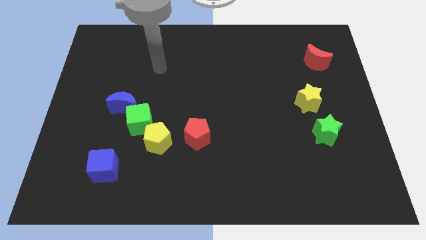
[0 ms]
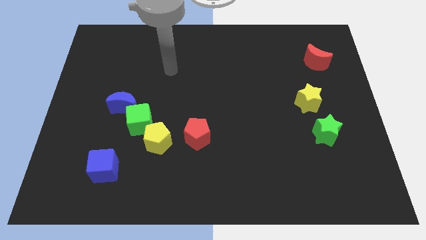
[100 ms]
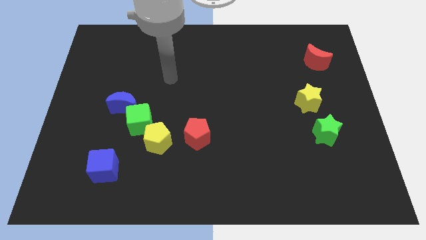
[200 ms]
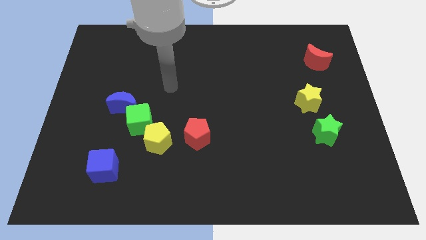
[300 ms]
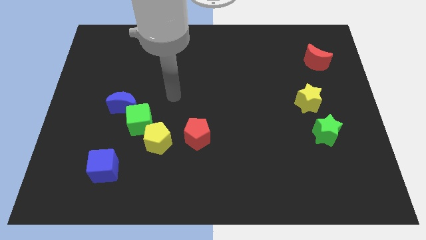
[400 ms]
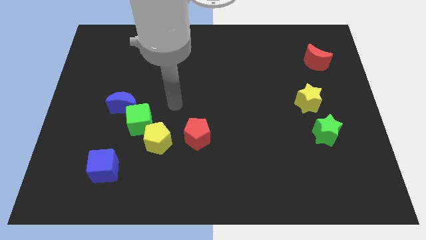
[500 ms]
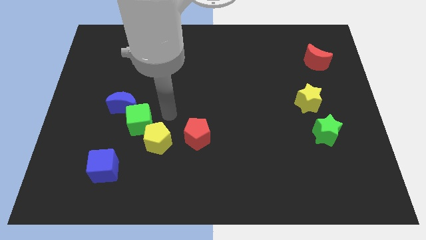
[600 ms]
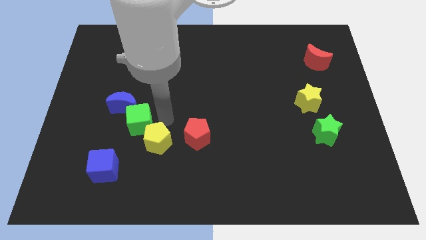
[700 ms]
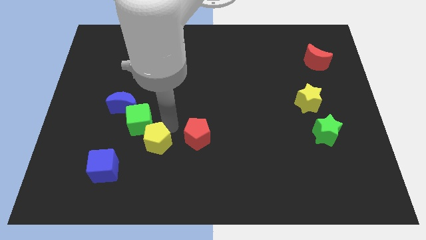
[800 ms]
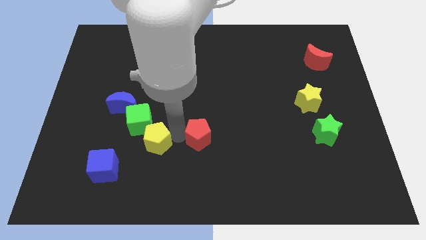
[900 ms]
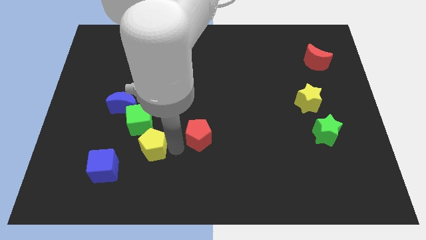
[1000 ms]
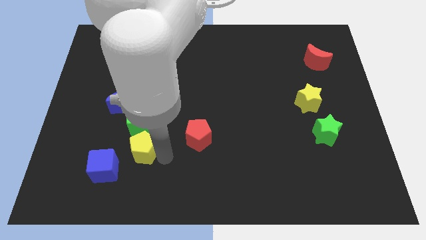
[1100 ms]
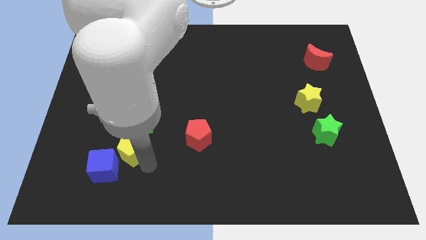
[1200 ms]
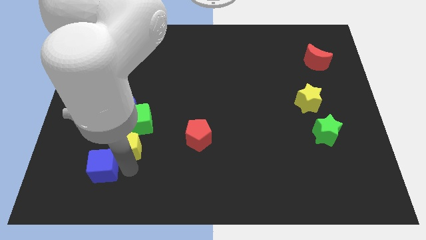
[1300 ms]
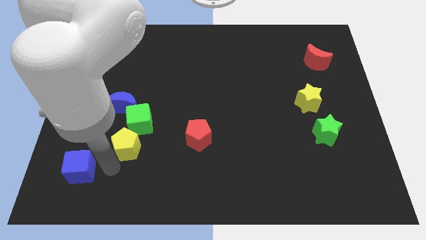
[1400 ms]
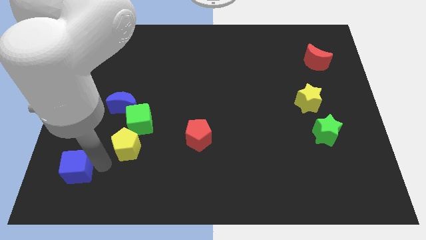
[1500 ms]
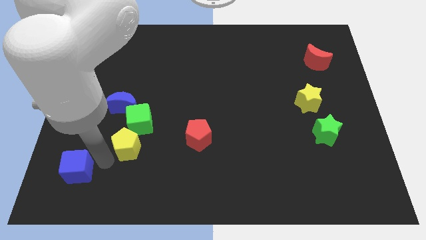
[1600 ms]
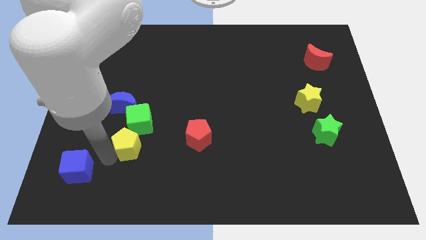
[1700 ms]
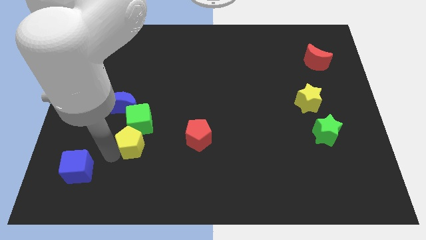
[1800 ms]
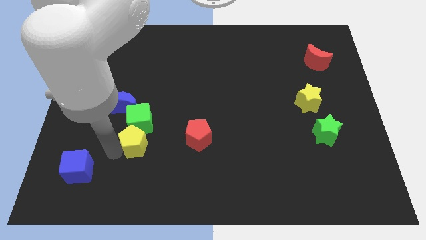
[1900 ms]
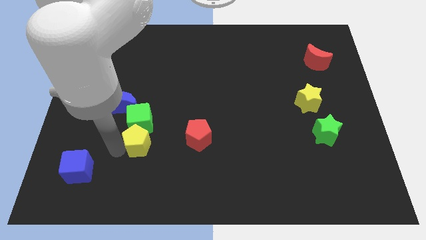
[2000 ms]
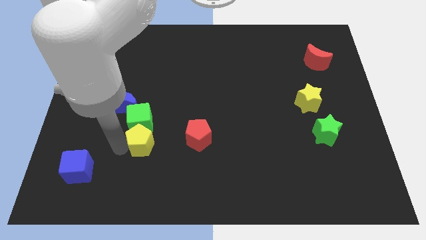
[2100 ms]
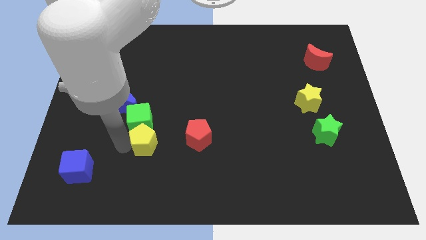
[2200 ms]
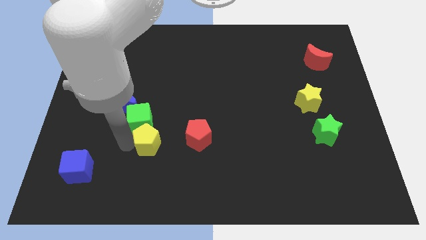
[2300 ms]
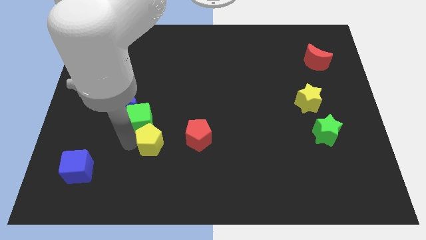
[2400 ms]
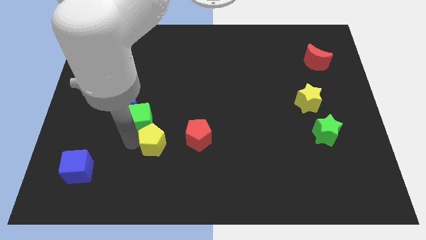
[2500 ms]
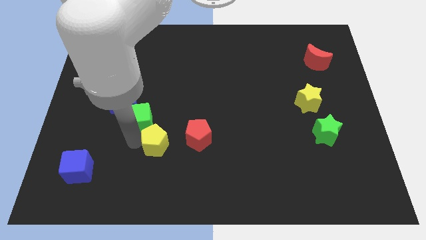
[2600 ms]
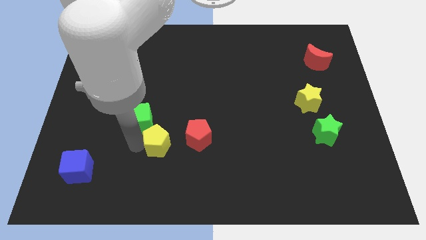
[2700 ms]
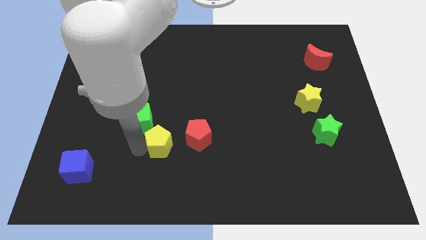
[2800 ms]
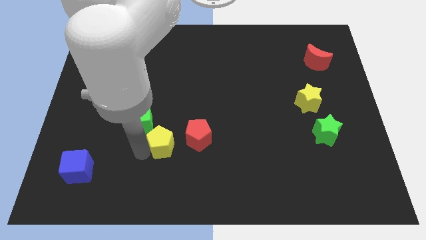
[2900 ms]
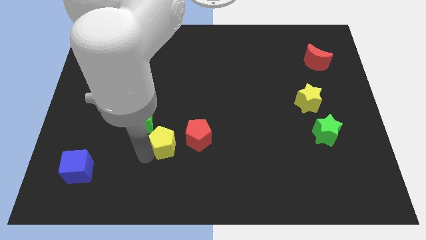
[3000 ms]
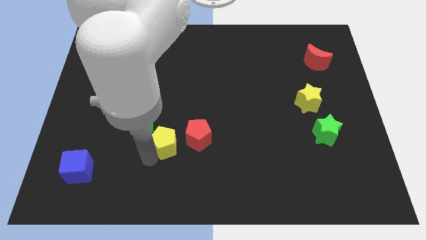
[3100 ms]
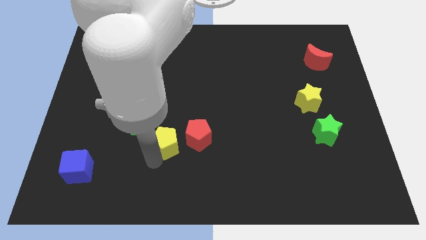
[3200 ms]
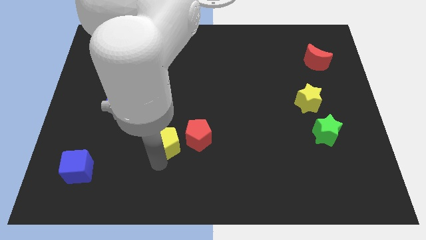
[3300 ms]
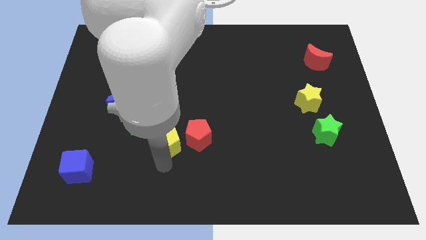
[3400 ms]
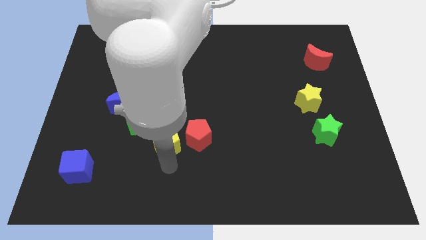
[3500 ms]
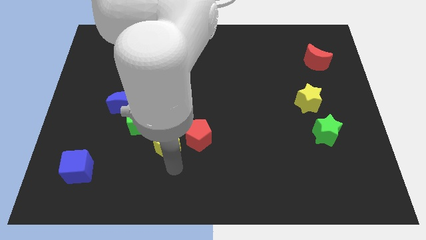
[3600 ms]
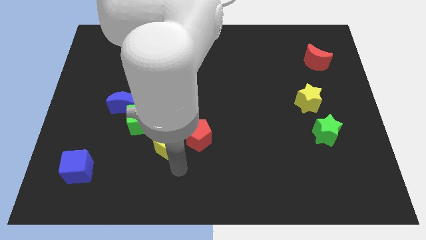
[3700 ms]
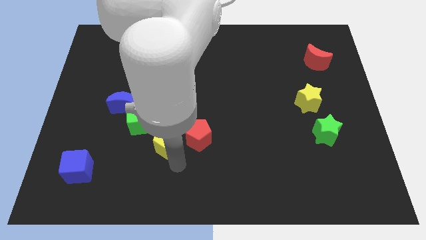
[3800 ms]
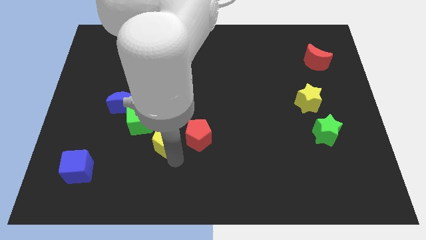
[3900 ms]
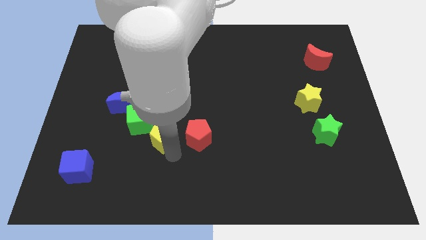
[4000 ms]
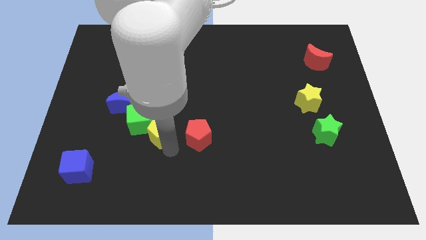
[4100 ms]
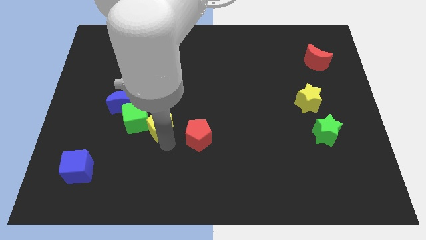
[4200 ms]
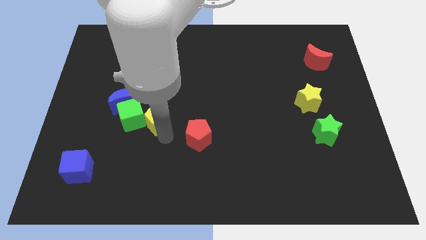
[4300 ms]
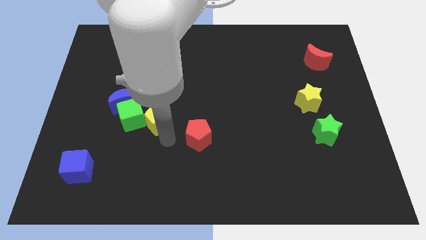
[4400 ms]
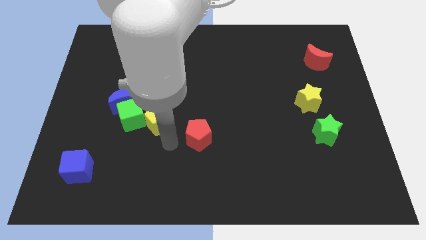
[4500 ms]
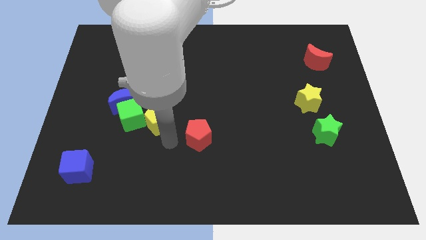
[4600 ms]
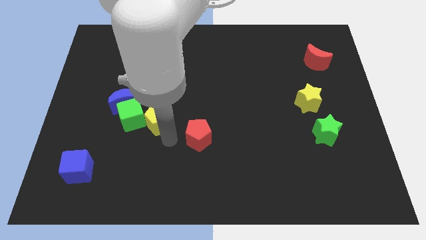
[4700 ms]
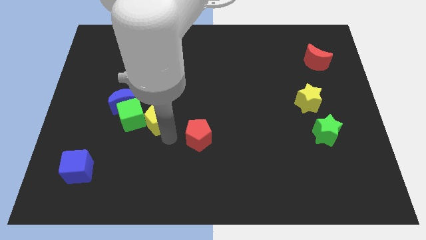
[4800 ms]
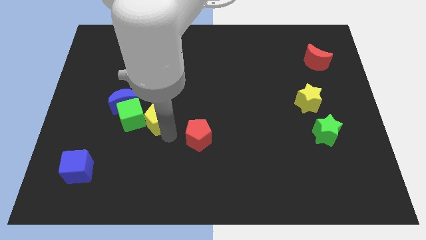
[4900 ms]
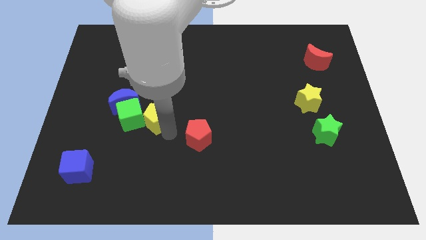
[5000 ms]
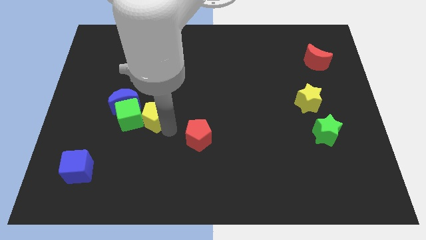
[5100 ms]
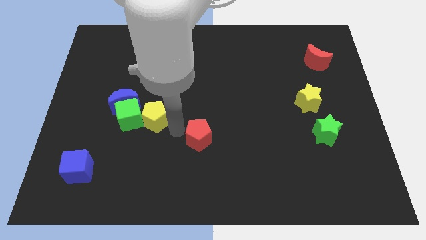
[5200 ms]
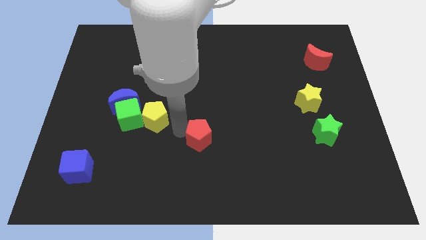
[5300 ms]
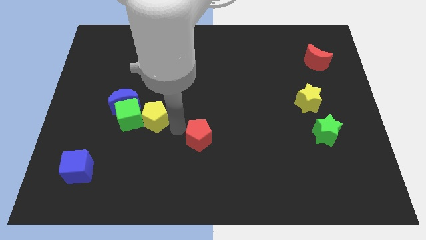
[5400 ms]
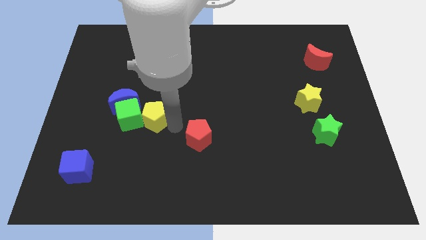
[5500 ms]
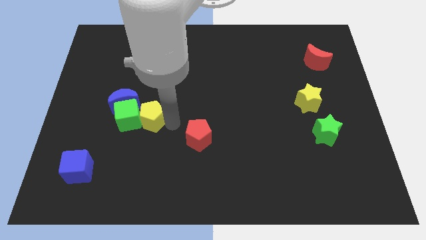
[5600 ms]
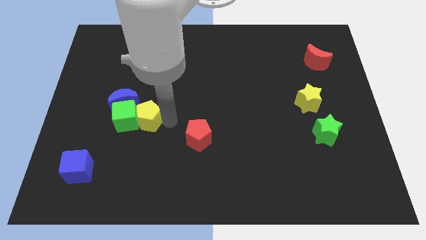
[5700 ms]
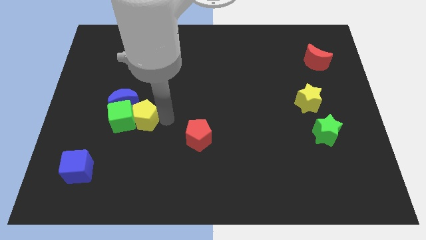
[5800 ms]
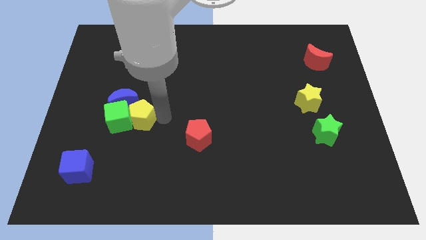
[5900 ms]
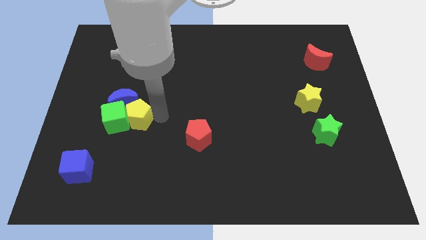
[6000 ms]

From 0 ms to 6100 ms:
push the yellow pentagon close to the blue moon

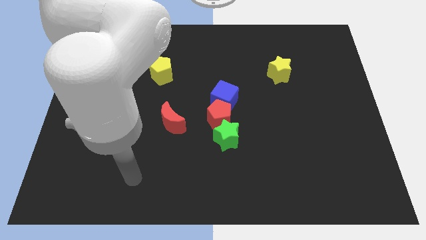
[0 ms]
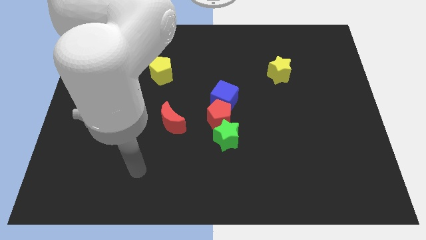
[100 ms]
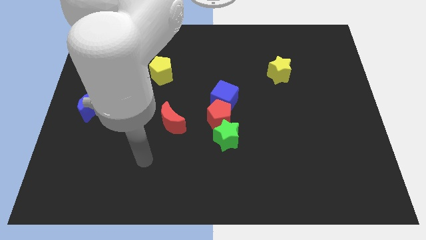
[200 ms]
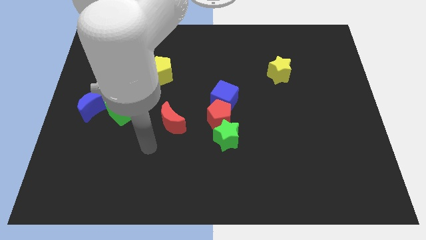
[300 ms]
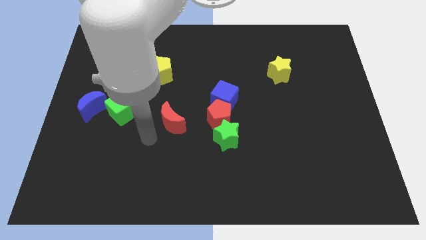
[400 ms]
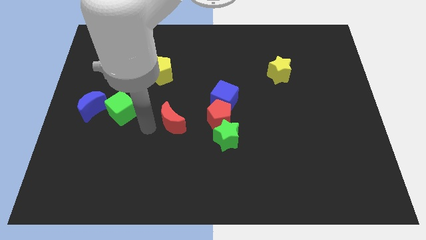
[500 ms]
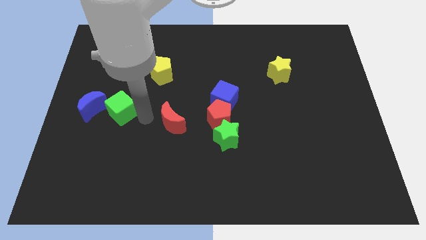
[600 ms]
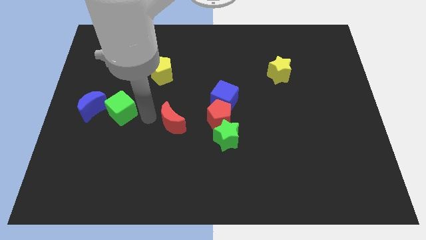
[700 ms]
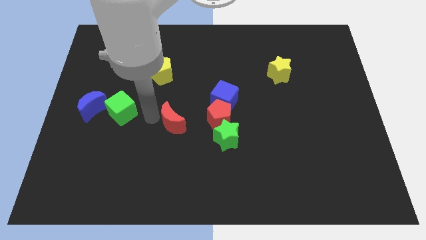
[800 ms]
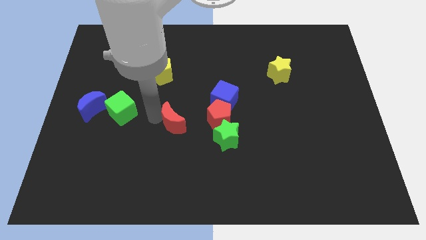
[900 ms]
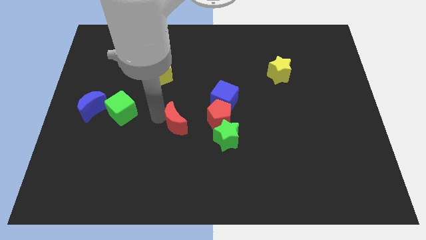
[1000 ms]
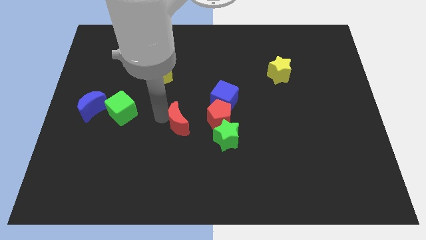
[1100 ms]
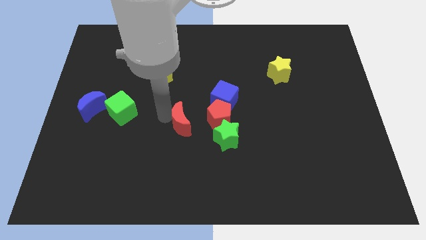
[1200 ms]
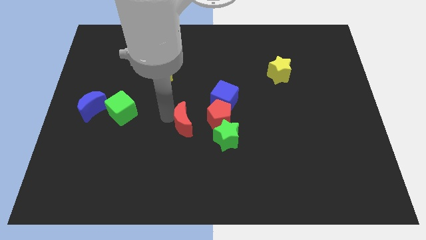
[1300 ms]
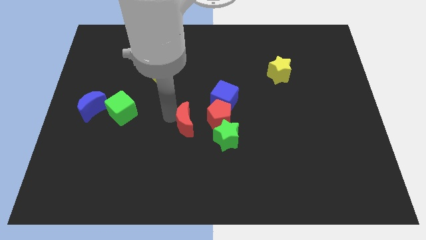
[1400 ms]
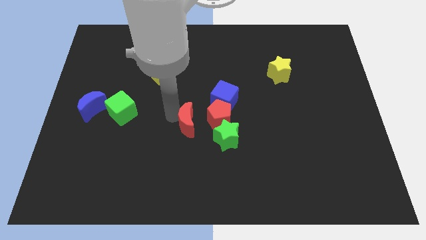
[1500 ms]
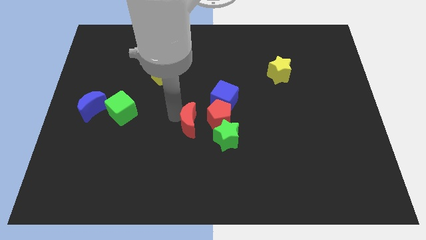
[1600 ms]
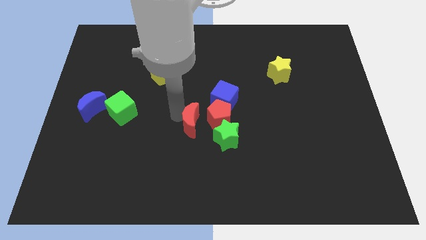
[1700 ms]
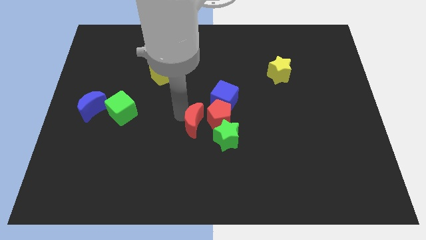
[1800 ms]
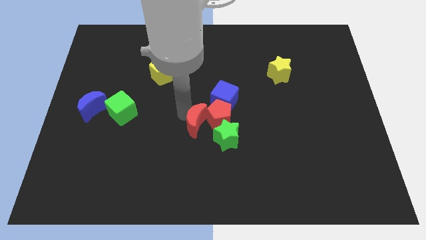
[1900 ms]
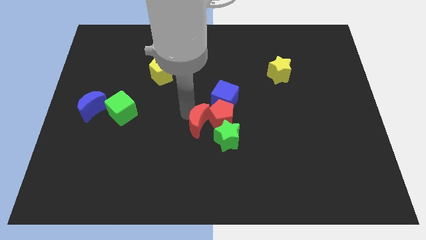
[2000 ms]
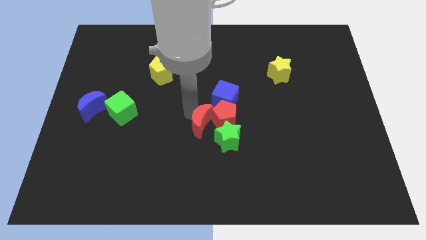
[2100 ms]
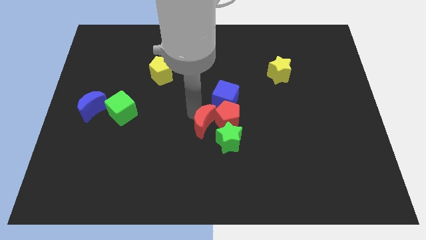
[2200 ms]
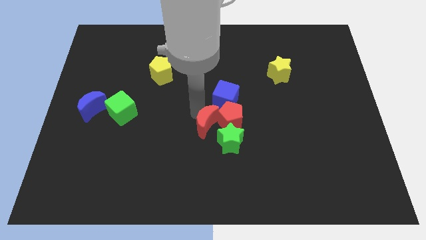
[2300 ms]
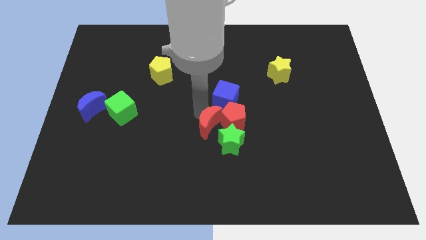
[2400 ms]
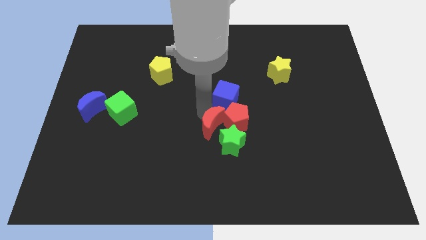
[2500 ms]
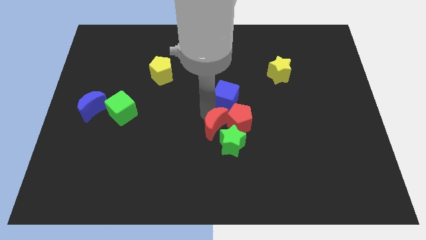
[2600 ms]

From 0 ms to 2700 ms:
put the red moon close to the green star
